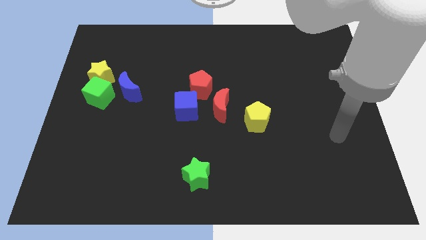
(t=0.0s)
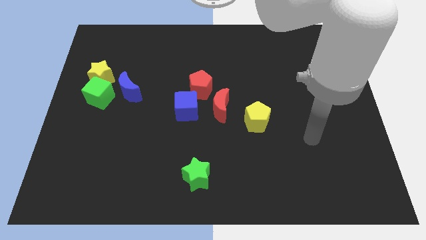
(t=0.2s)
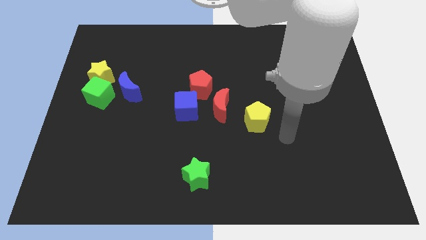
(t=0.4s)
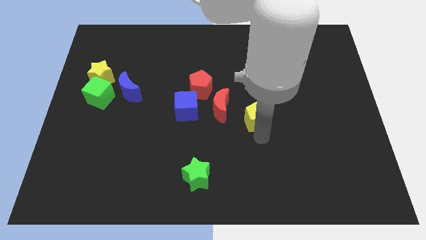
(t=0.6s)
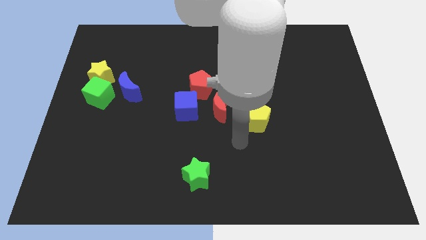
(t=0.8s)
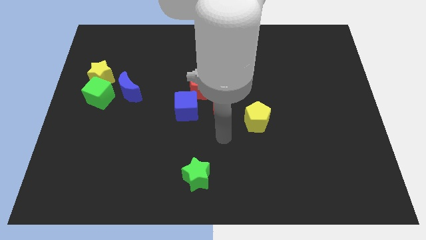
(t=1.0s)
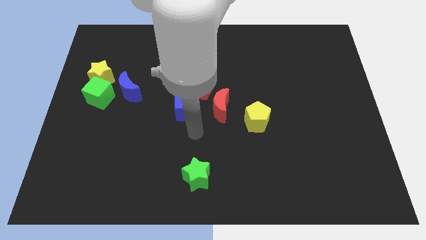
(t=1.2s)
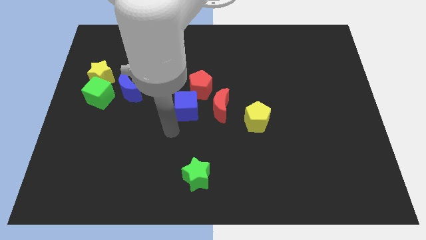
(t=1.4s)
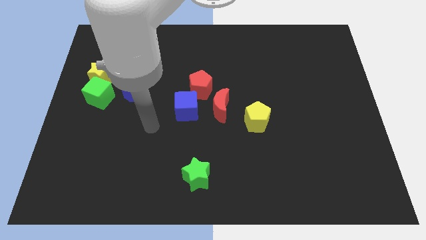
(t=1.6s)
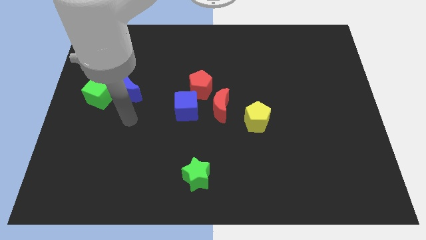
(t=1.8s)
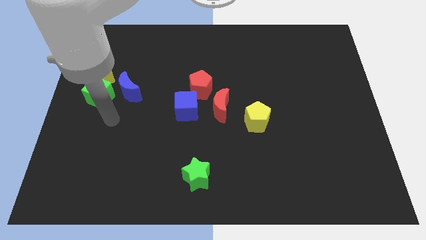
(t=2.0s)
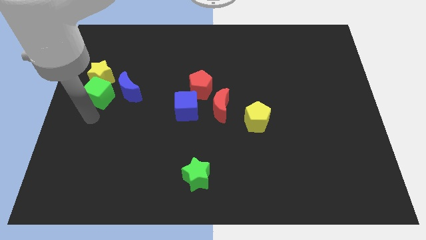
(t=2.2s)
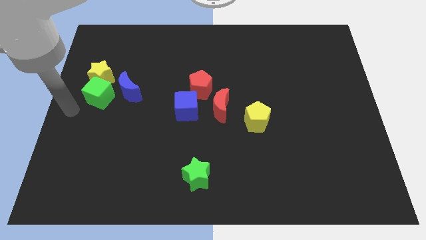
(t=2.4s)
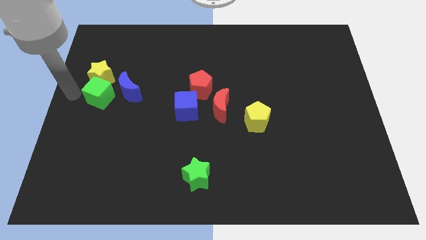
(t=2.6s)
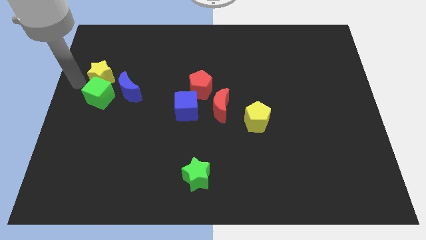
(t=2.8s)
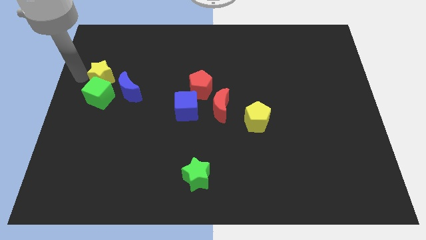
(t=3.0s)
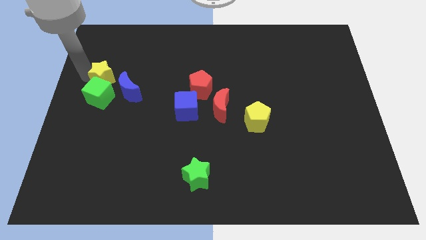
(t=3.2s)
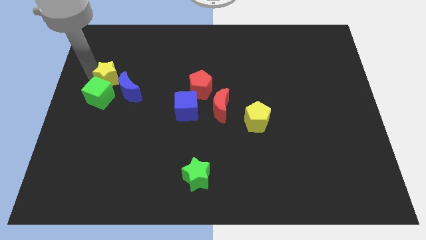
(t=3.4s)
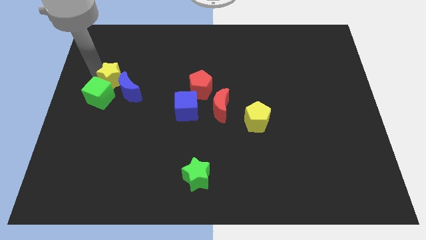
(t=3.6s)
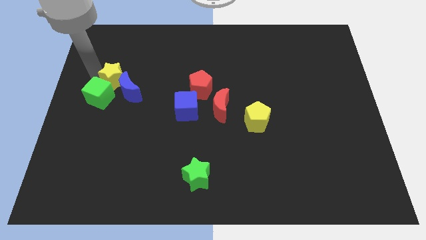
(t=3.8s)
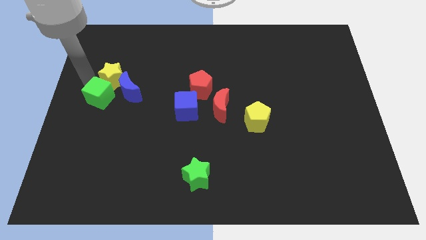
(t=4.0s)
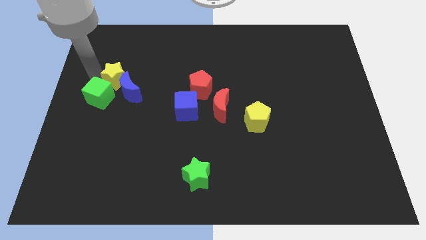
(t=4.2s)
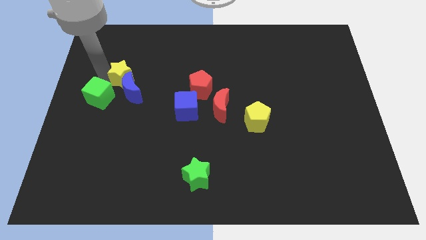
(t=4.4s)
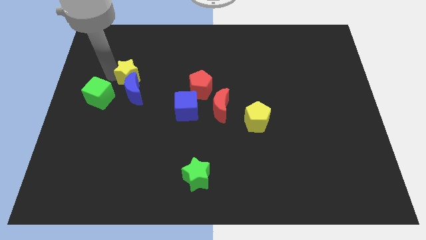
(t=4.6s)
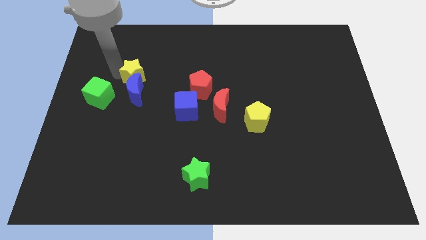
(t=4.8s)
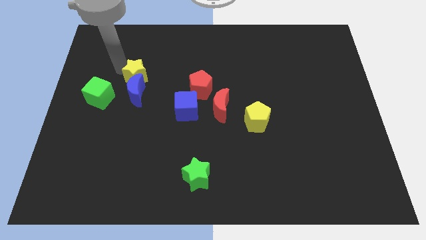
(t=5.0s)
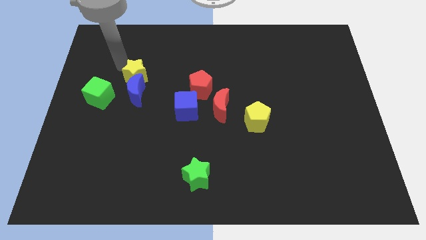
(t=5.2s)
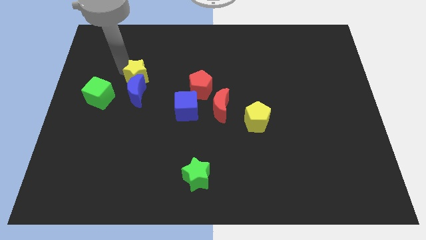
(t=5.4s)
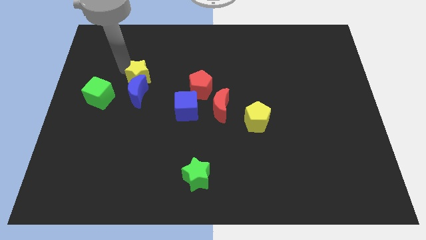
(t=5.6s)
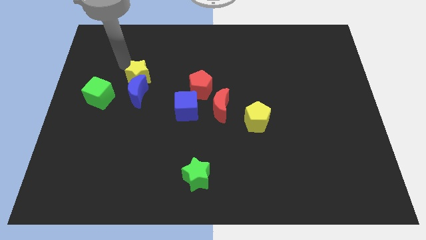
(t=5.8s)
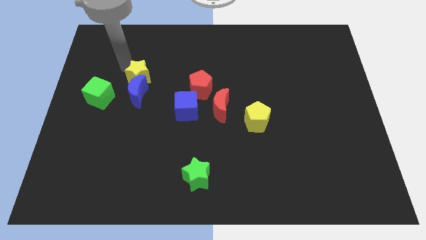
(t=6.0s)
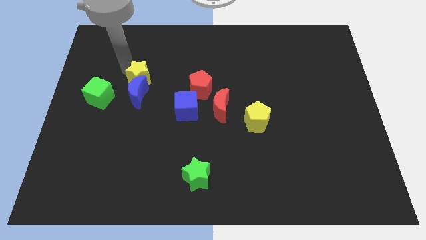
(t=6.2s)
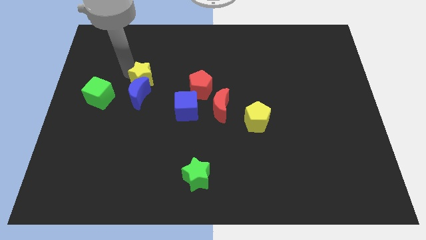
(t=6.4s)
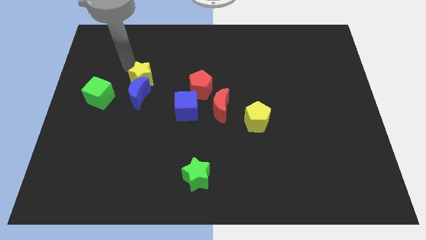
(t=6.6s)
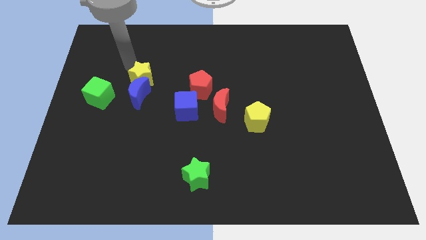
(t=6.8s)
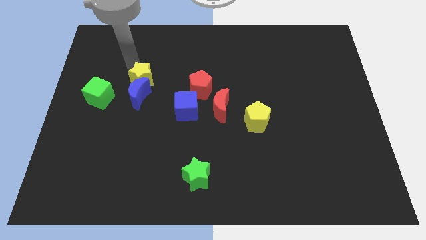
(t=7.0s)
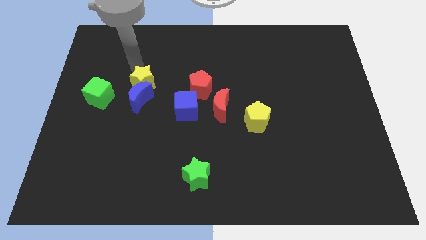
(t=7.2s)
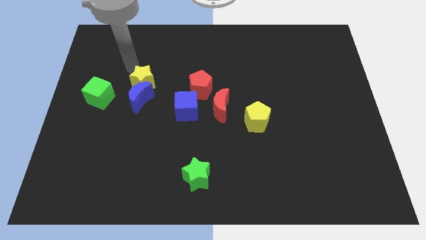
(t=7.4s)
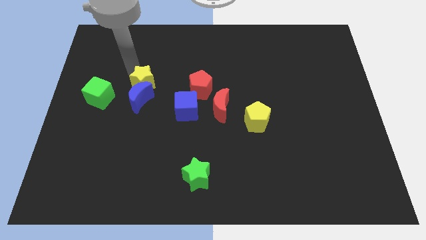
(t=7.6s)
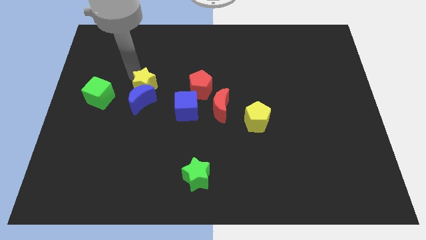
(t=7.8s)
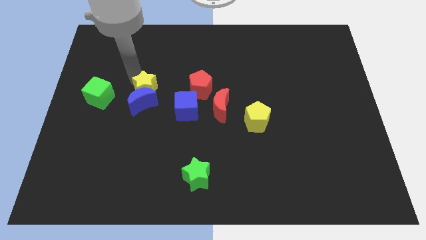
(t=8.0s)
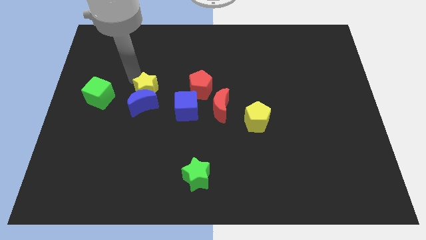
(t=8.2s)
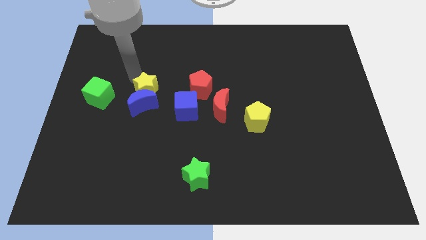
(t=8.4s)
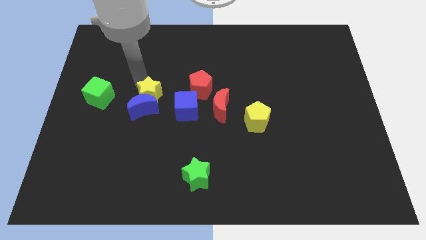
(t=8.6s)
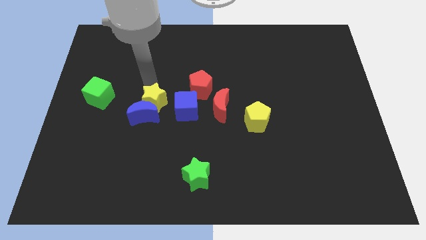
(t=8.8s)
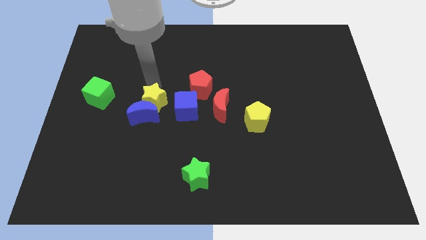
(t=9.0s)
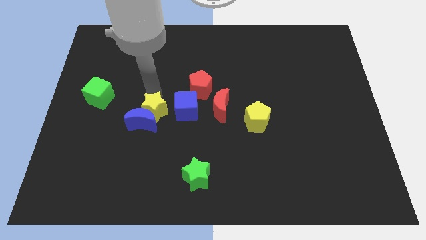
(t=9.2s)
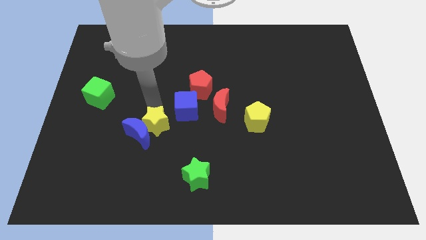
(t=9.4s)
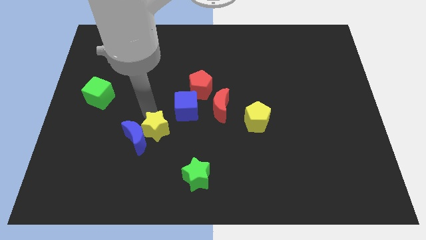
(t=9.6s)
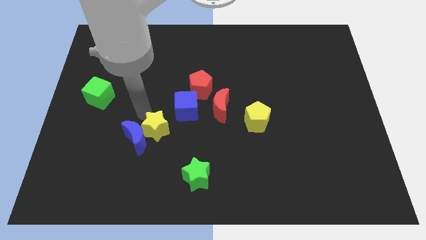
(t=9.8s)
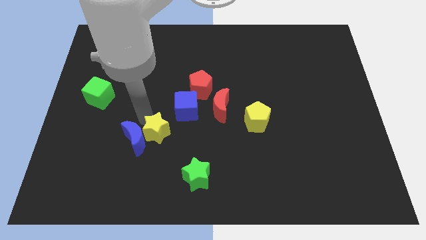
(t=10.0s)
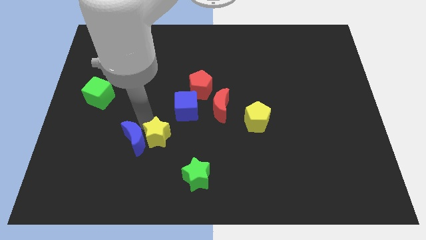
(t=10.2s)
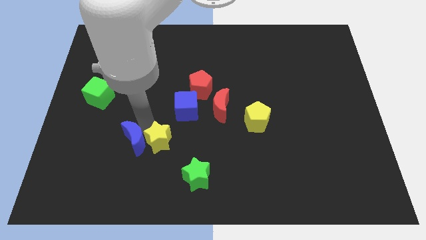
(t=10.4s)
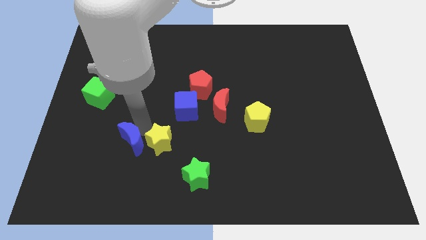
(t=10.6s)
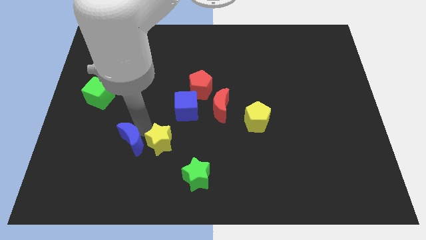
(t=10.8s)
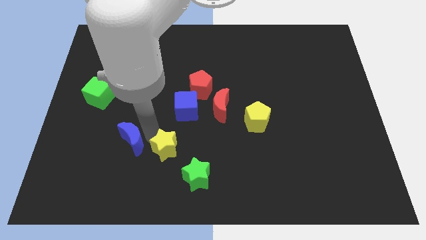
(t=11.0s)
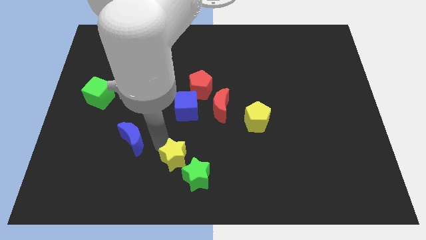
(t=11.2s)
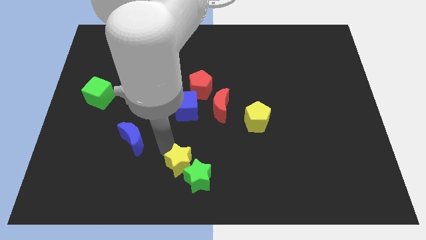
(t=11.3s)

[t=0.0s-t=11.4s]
move the yellow star close to the green star

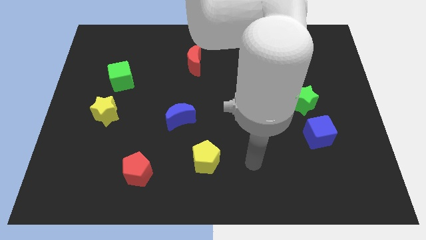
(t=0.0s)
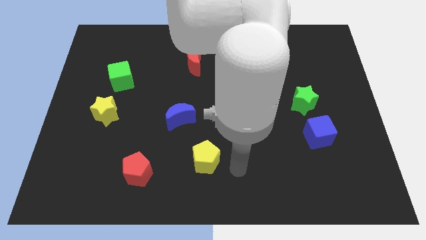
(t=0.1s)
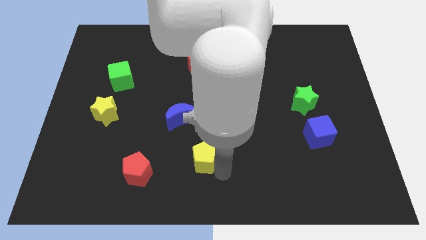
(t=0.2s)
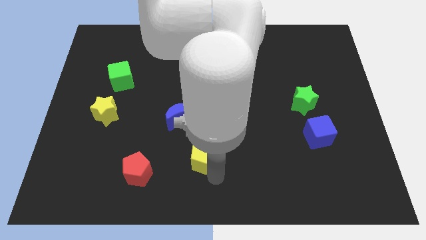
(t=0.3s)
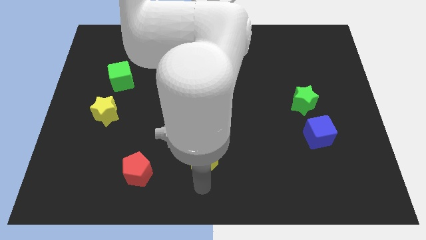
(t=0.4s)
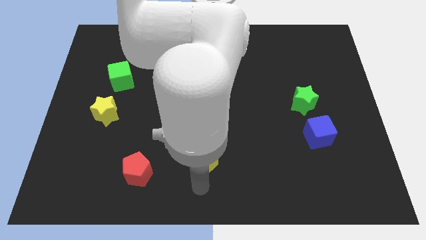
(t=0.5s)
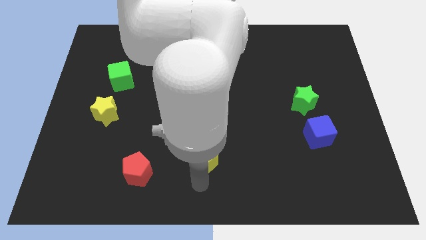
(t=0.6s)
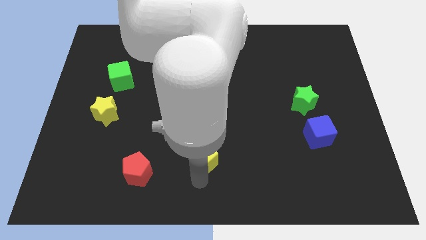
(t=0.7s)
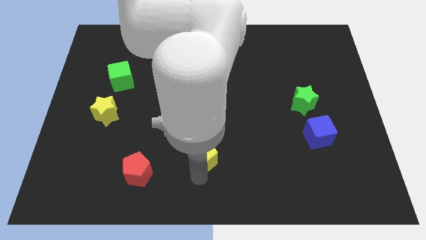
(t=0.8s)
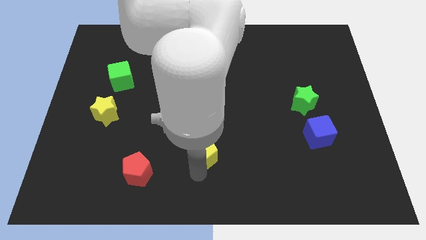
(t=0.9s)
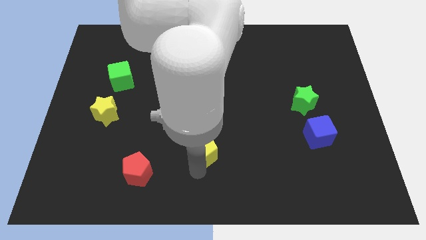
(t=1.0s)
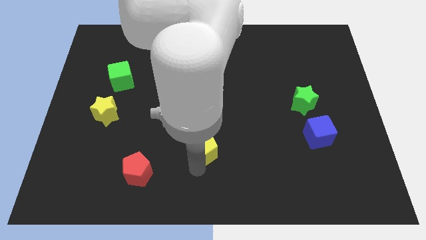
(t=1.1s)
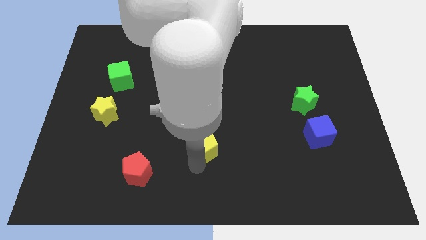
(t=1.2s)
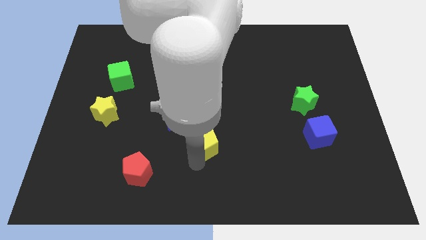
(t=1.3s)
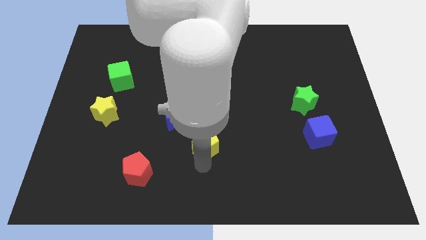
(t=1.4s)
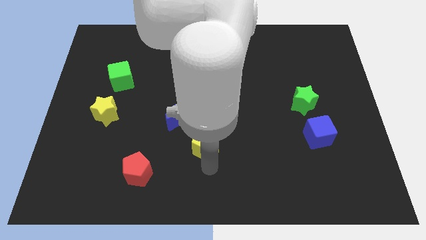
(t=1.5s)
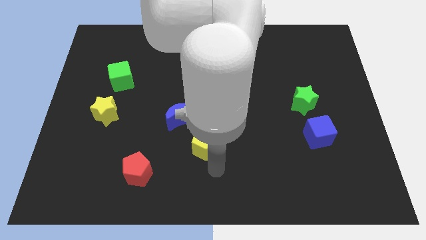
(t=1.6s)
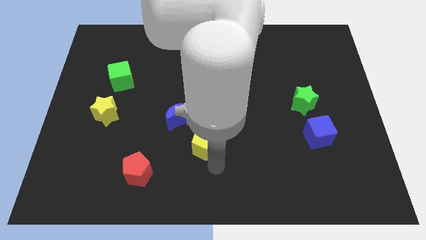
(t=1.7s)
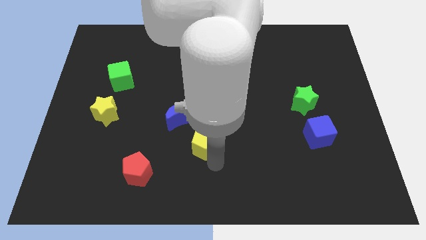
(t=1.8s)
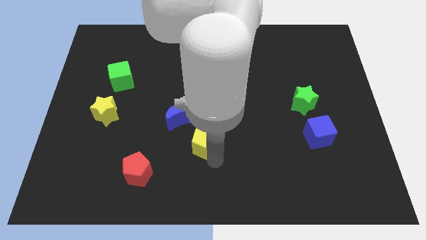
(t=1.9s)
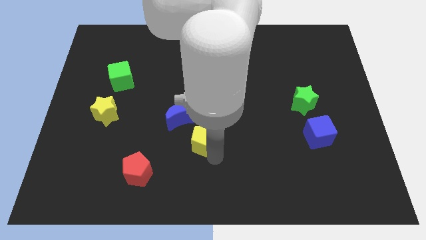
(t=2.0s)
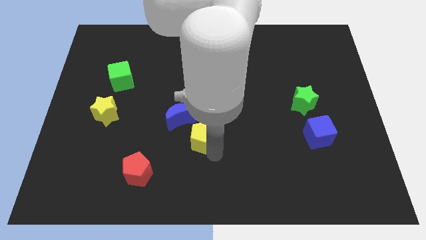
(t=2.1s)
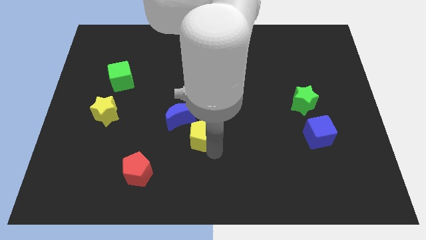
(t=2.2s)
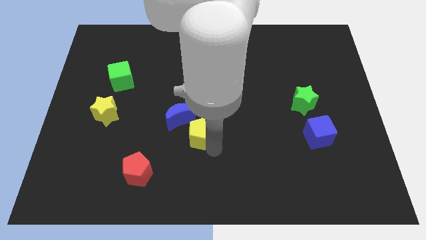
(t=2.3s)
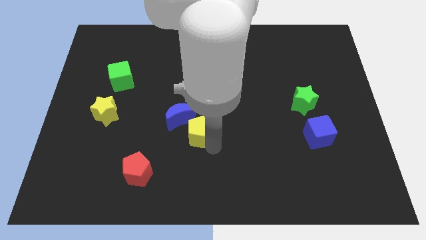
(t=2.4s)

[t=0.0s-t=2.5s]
push the yellow pentagon close to the blue moon
